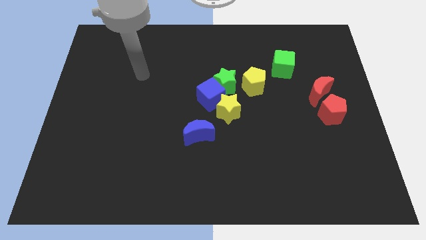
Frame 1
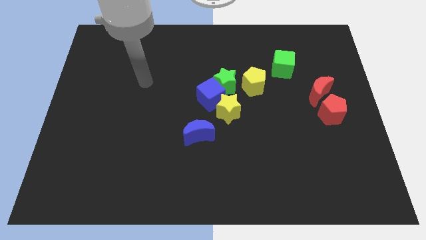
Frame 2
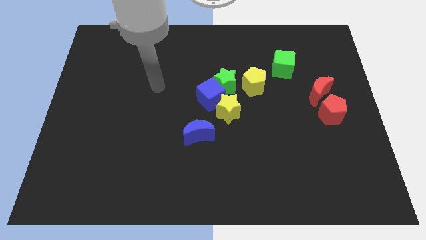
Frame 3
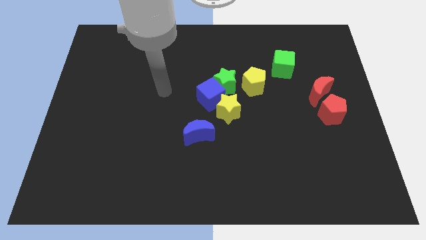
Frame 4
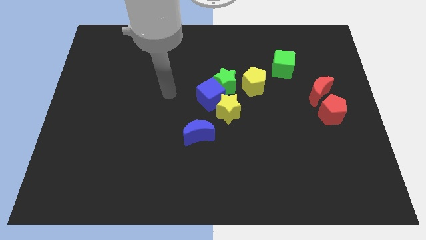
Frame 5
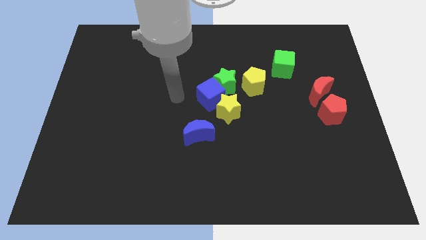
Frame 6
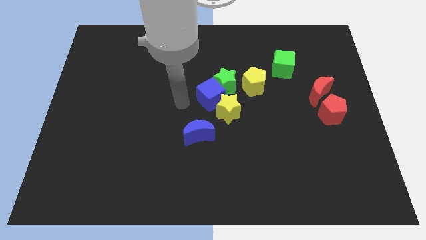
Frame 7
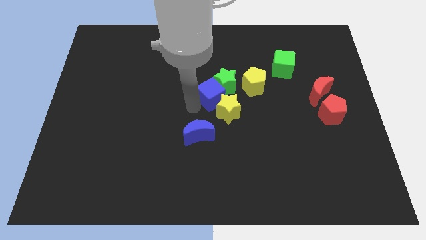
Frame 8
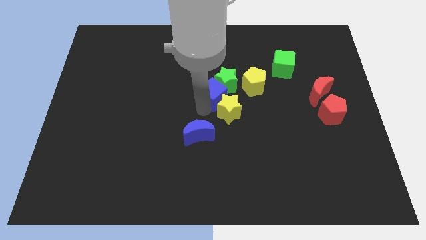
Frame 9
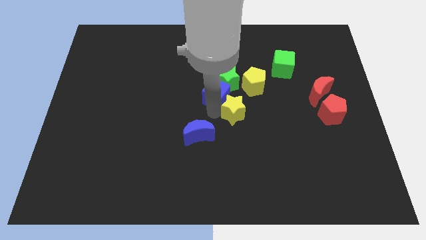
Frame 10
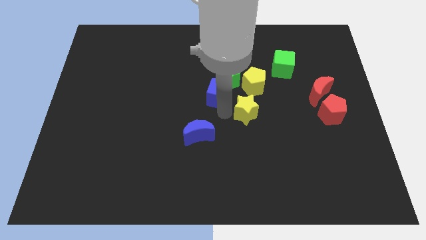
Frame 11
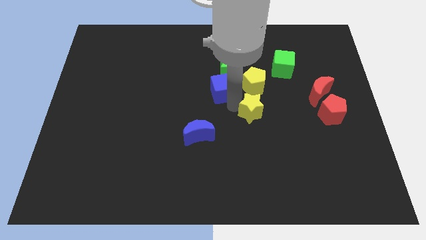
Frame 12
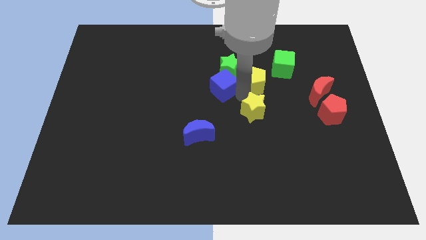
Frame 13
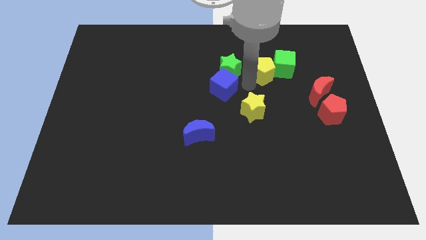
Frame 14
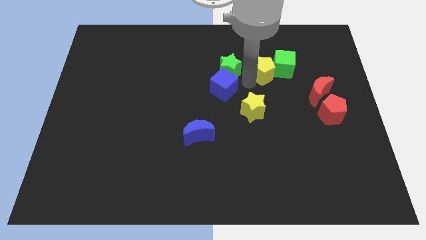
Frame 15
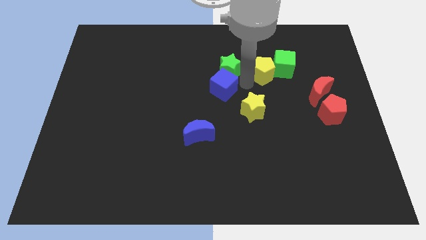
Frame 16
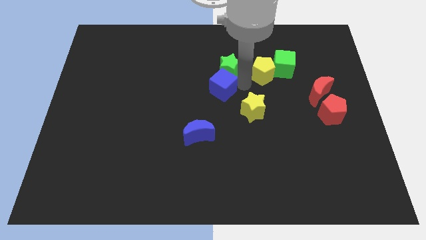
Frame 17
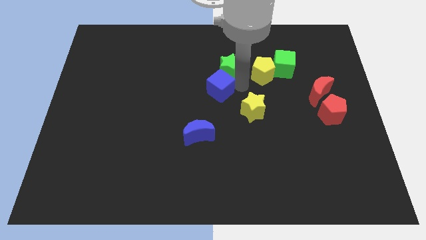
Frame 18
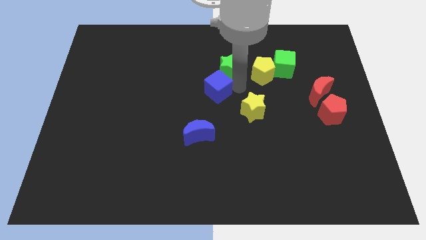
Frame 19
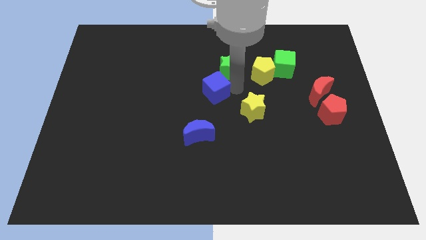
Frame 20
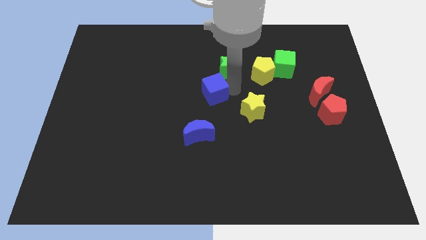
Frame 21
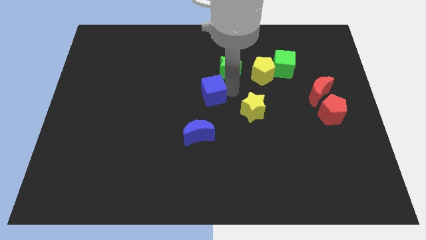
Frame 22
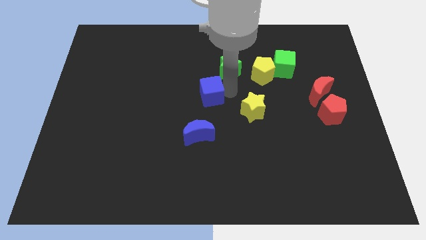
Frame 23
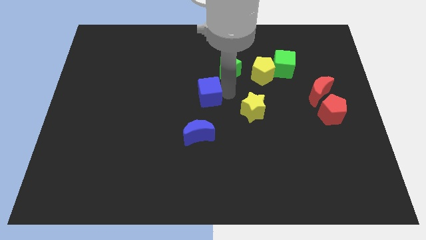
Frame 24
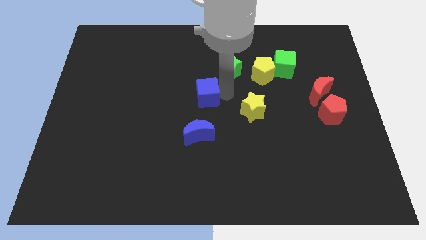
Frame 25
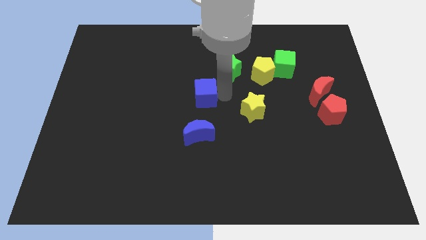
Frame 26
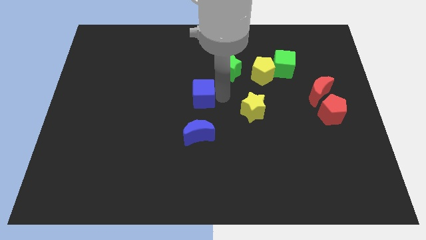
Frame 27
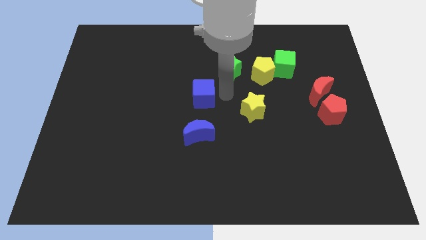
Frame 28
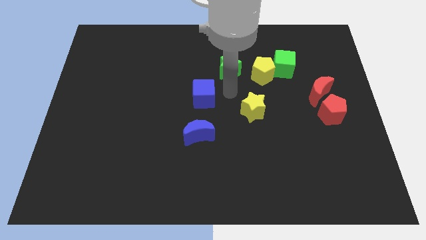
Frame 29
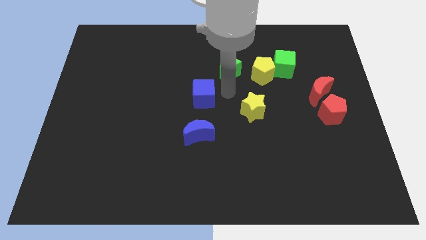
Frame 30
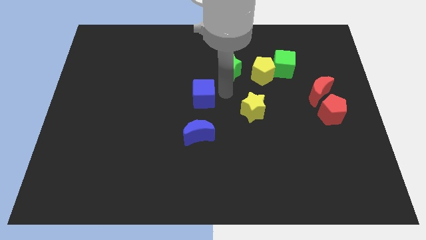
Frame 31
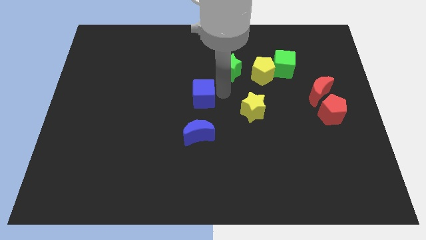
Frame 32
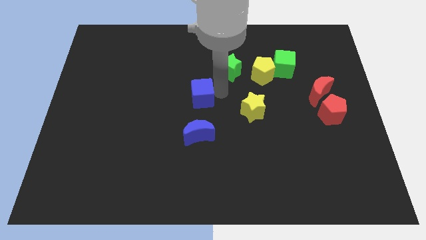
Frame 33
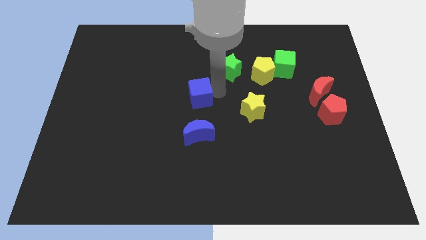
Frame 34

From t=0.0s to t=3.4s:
separate the blue cube from the green star and yellow star

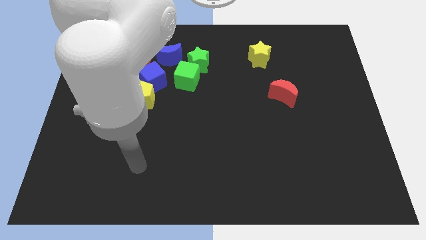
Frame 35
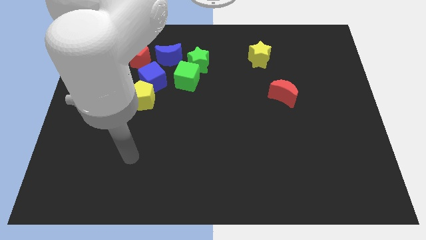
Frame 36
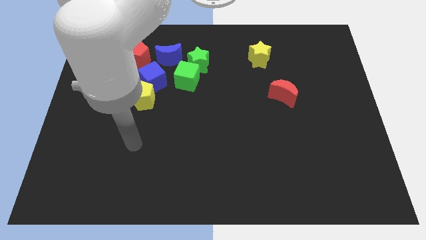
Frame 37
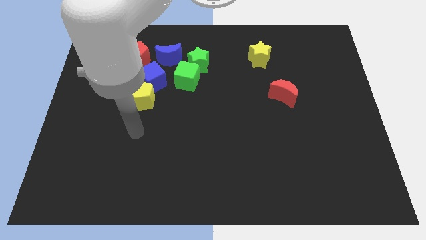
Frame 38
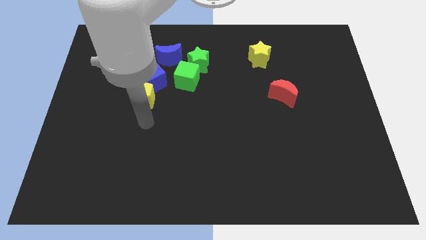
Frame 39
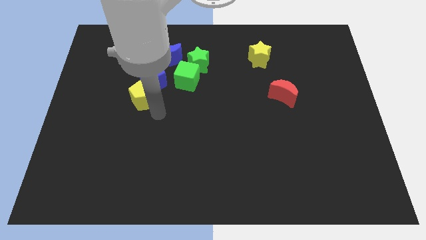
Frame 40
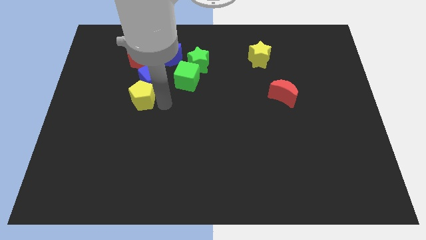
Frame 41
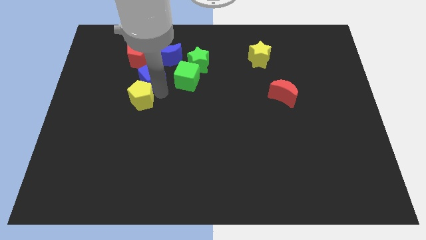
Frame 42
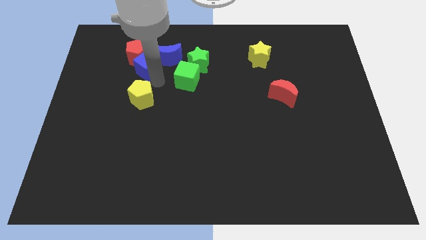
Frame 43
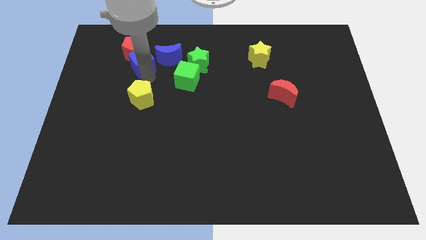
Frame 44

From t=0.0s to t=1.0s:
move the yellow pentagon away from the blue cube

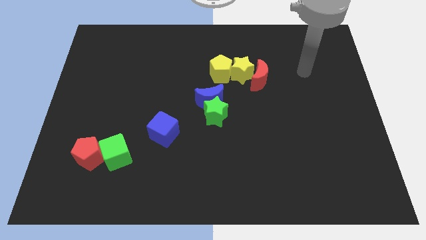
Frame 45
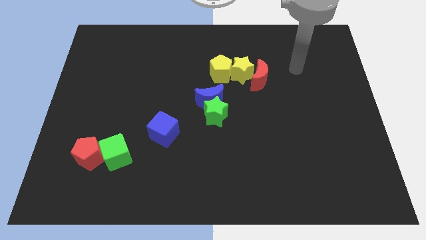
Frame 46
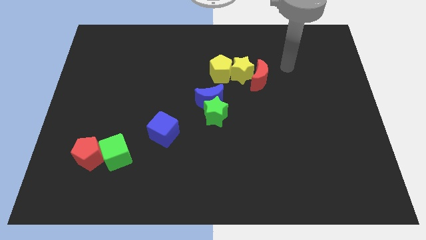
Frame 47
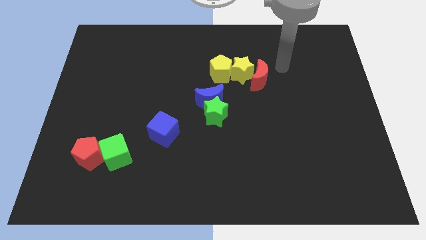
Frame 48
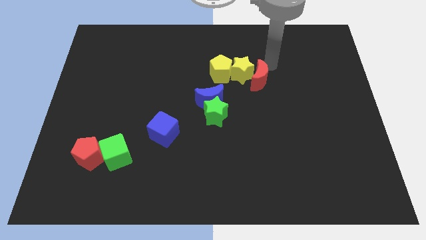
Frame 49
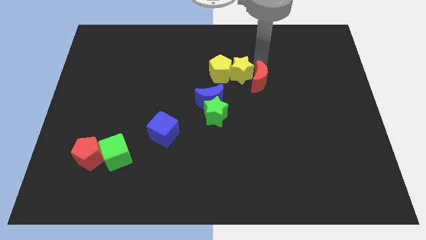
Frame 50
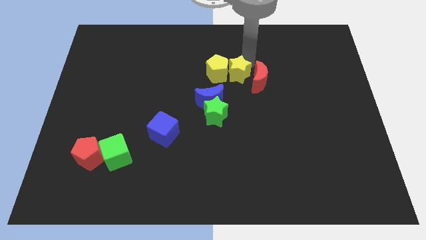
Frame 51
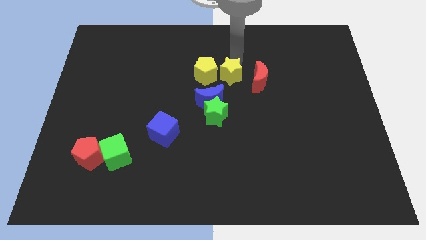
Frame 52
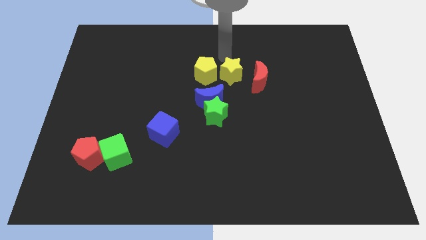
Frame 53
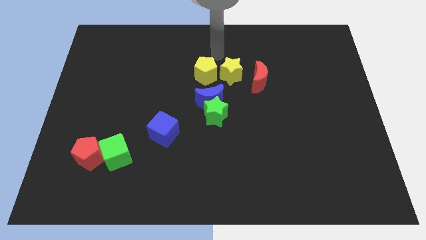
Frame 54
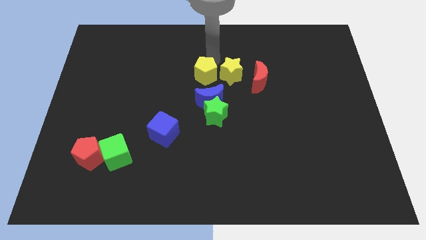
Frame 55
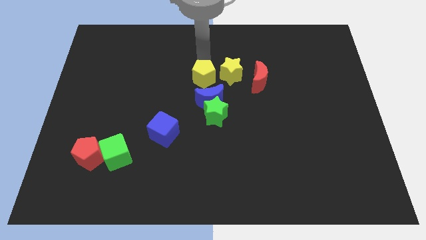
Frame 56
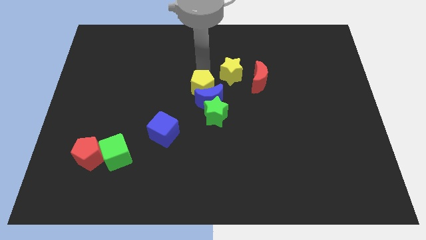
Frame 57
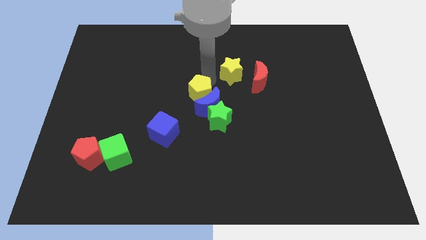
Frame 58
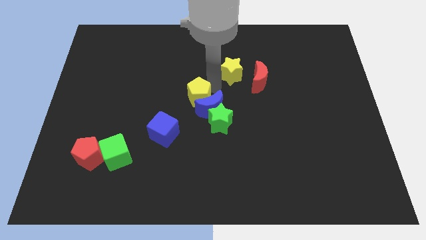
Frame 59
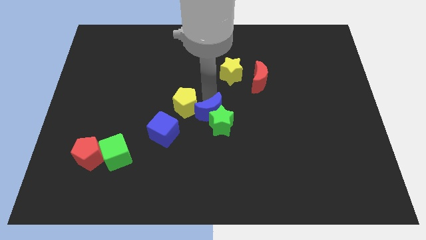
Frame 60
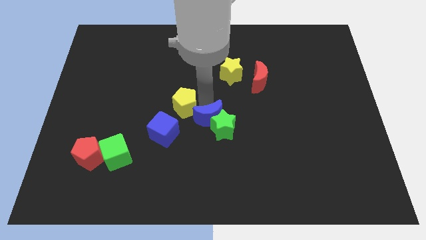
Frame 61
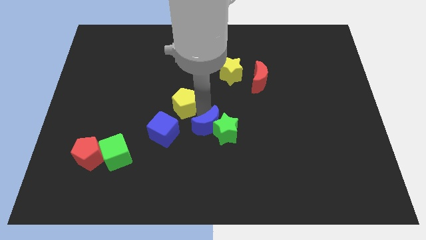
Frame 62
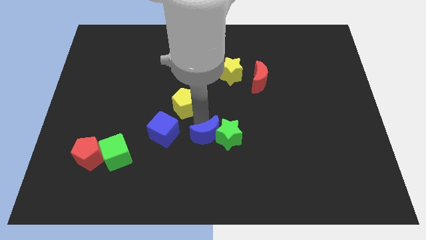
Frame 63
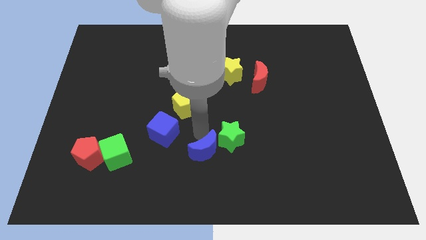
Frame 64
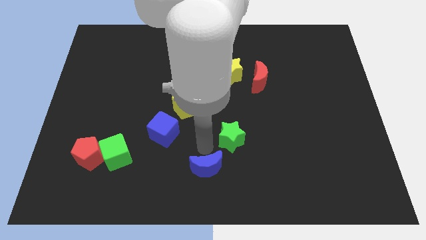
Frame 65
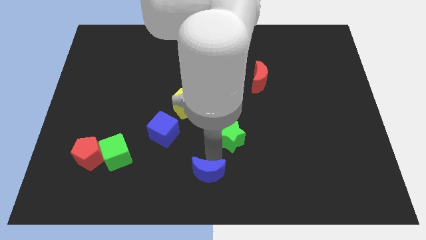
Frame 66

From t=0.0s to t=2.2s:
move the green star away from the blue moon

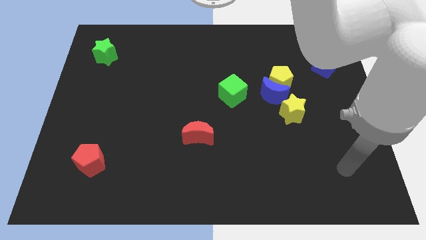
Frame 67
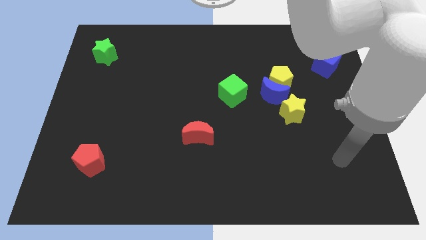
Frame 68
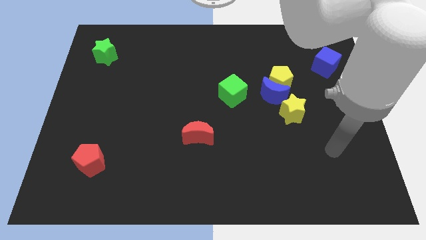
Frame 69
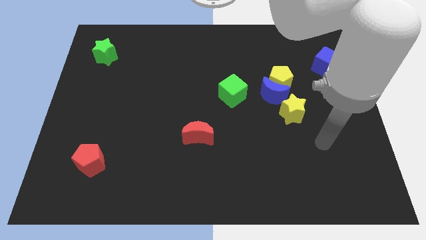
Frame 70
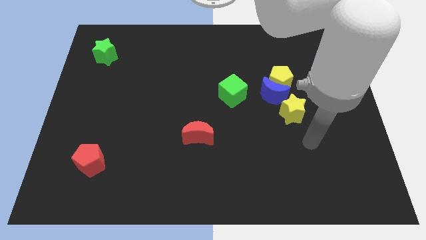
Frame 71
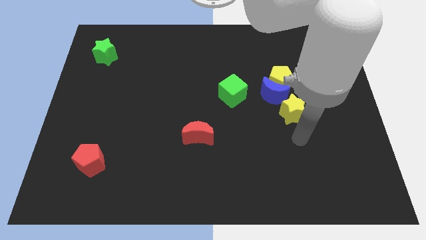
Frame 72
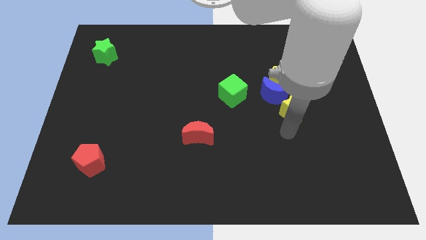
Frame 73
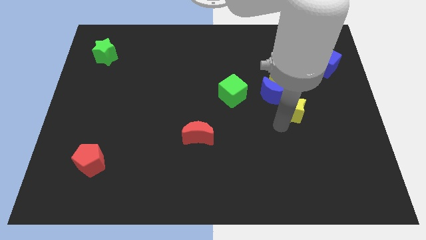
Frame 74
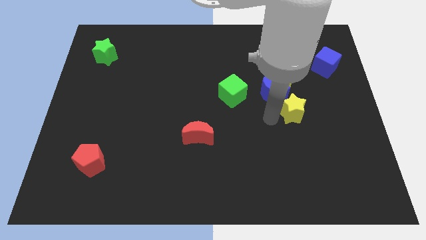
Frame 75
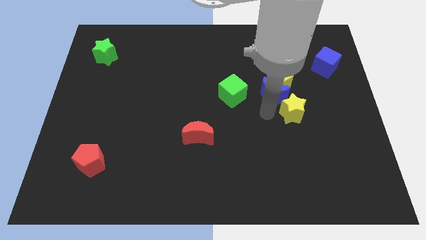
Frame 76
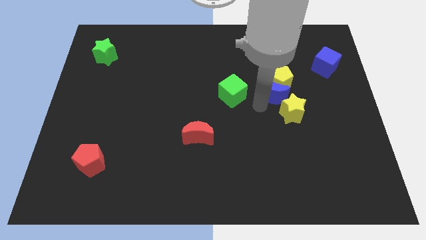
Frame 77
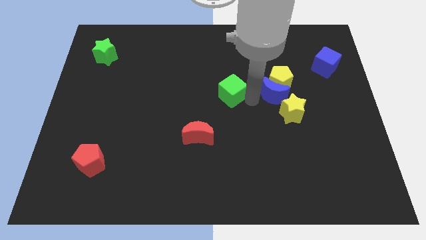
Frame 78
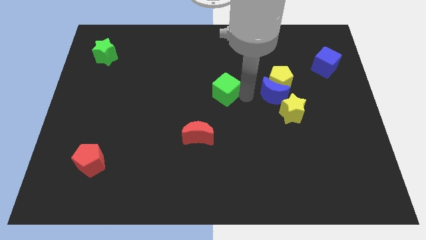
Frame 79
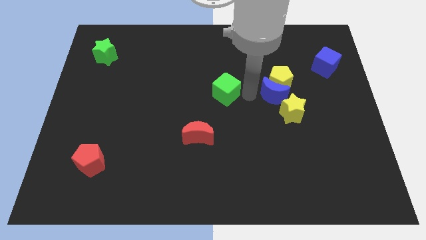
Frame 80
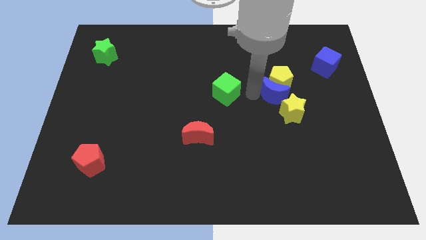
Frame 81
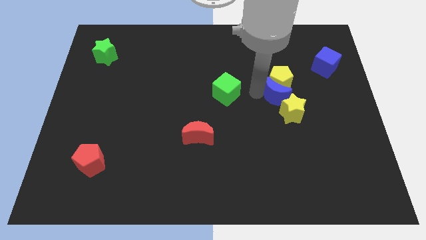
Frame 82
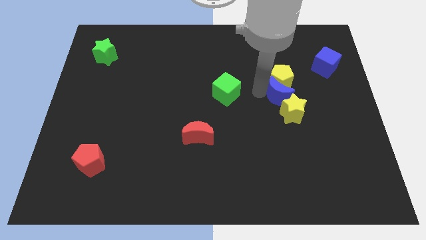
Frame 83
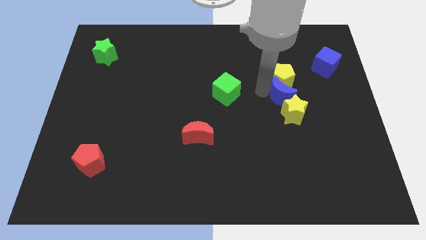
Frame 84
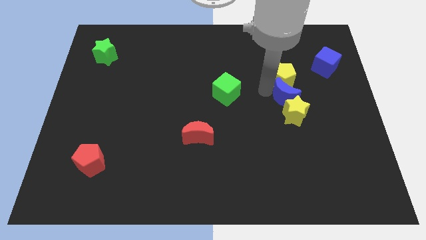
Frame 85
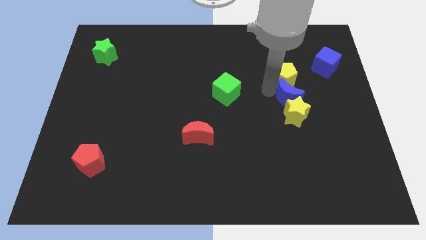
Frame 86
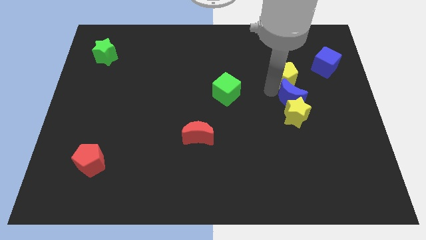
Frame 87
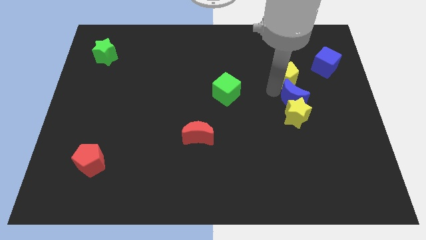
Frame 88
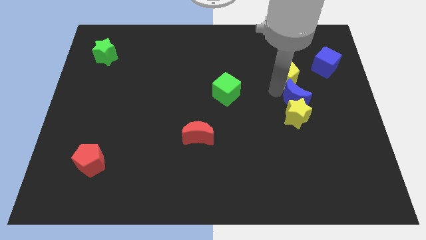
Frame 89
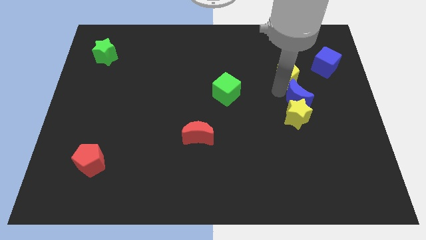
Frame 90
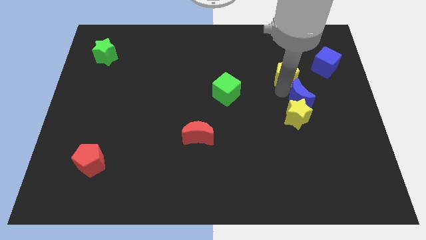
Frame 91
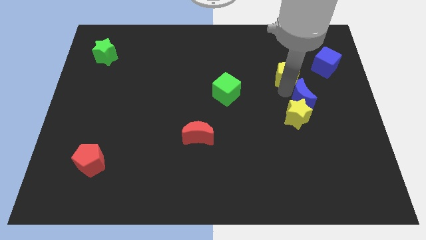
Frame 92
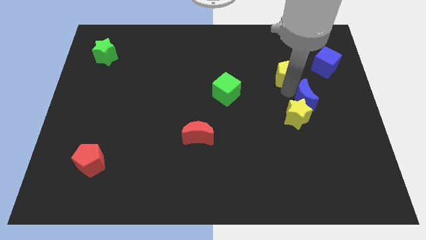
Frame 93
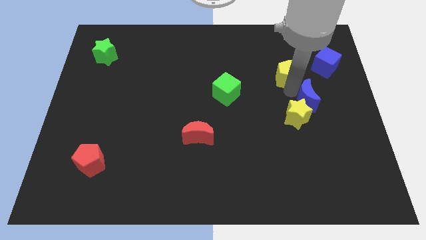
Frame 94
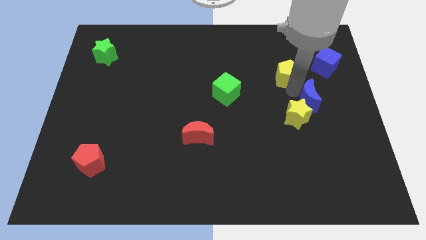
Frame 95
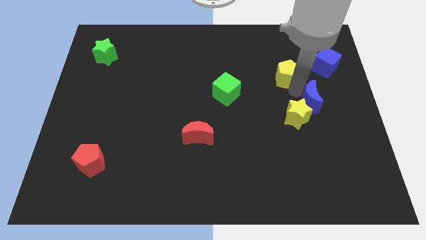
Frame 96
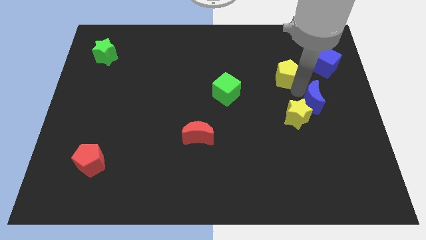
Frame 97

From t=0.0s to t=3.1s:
pull the blue moon apart from the yellow pentagon, yellow star, and green cube
